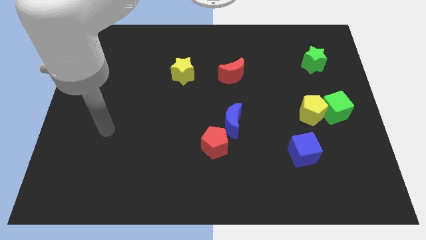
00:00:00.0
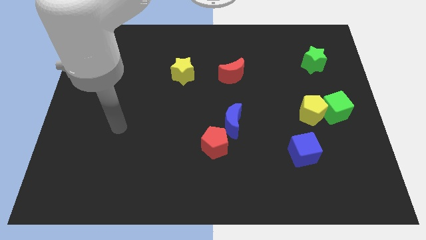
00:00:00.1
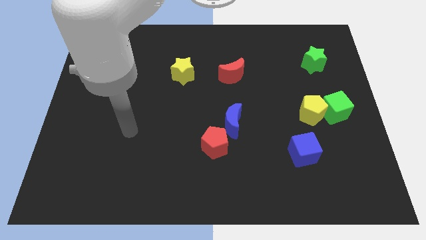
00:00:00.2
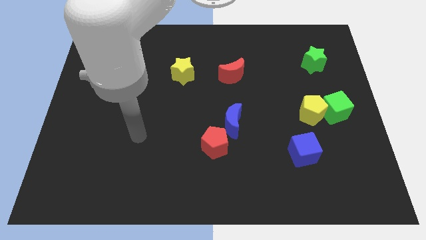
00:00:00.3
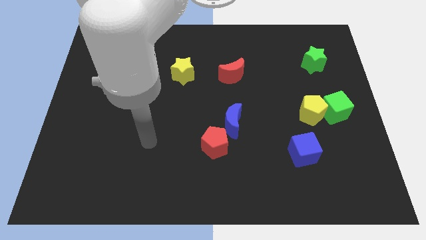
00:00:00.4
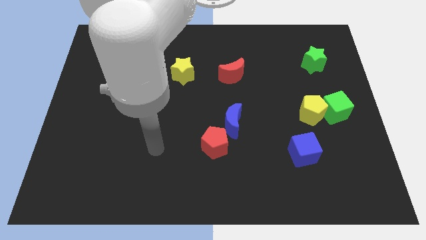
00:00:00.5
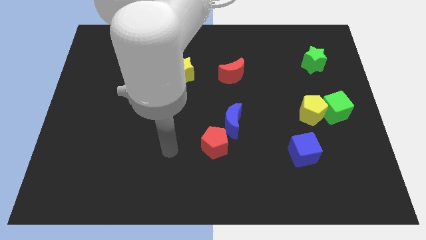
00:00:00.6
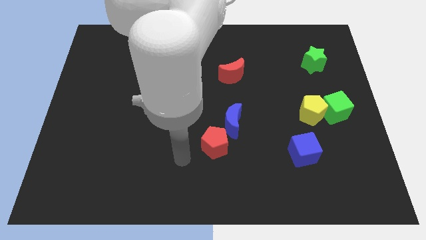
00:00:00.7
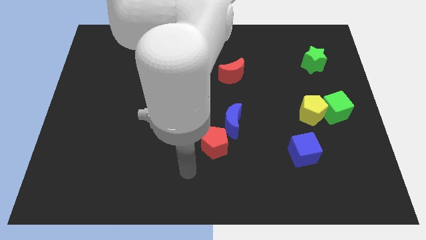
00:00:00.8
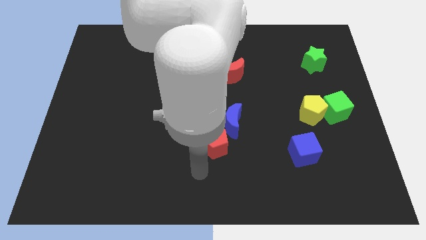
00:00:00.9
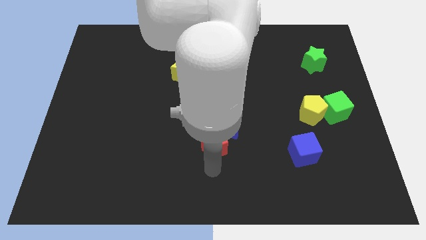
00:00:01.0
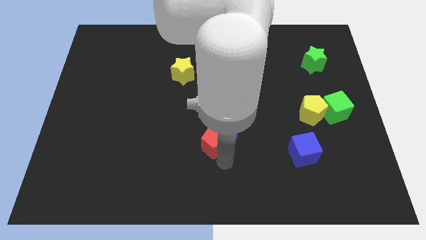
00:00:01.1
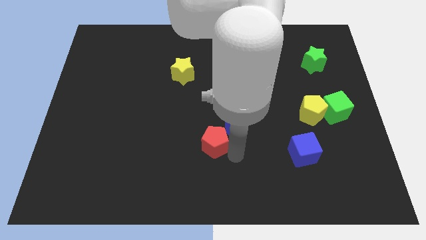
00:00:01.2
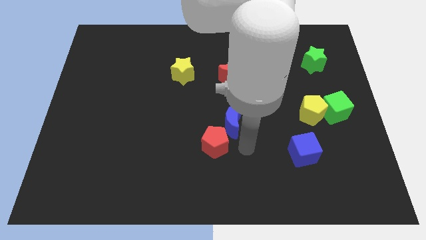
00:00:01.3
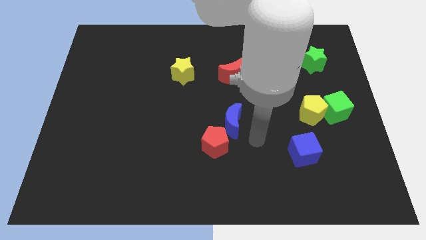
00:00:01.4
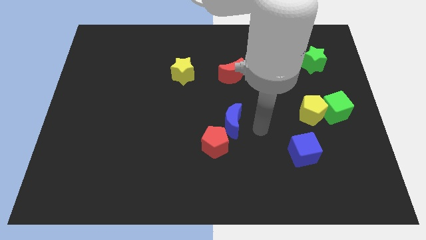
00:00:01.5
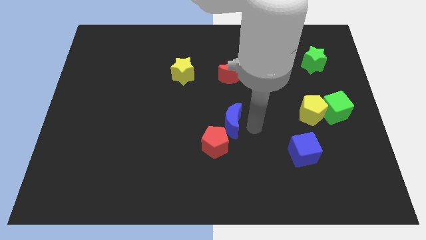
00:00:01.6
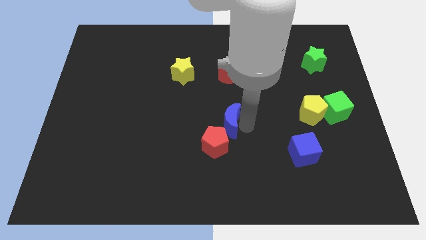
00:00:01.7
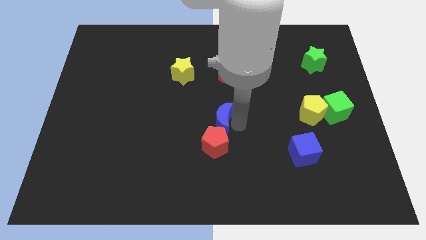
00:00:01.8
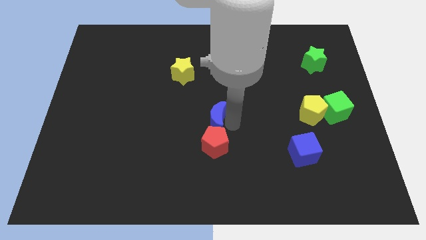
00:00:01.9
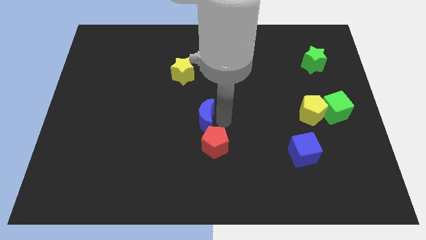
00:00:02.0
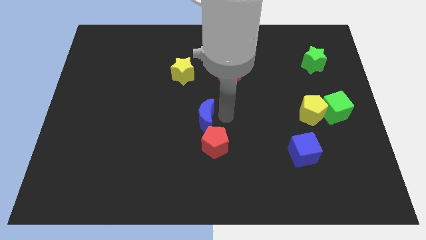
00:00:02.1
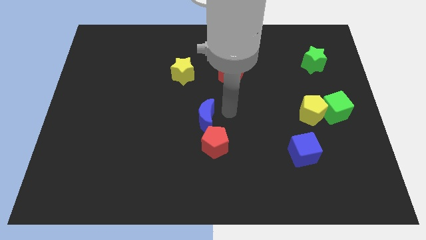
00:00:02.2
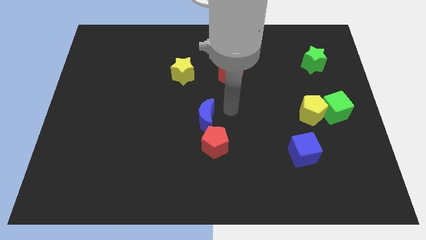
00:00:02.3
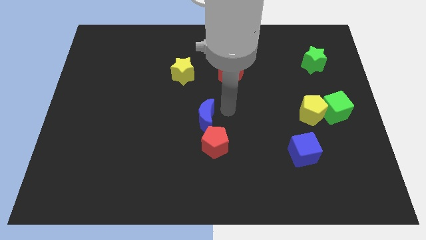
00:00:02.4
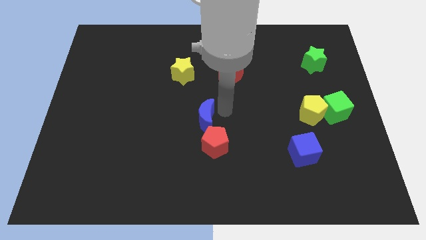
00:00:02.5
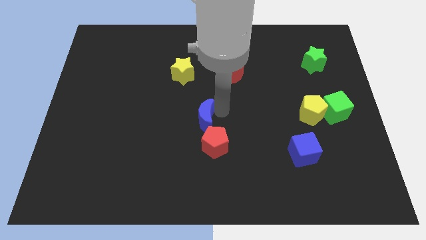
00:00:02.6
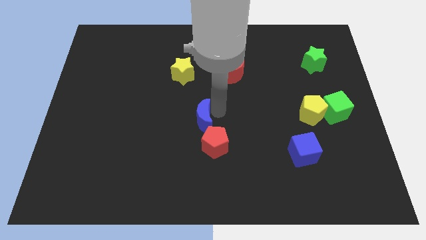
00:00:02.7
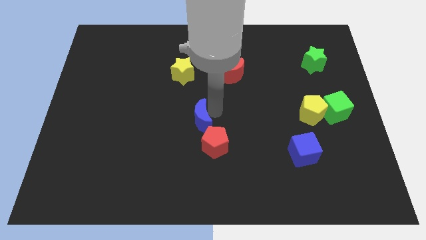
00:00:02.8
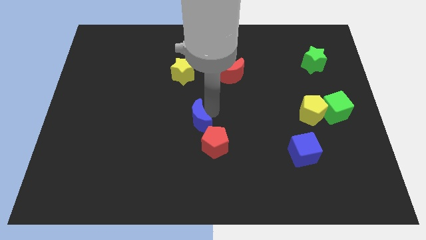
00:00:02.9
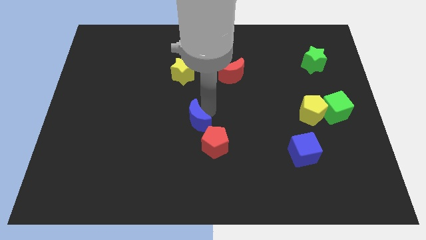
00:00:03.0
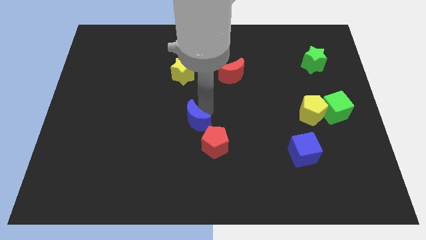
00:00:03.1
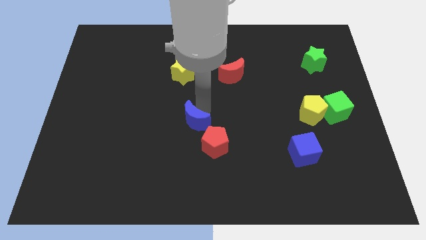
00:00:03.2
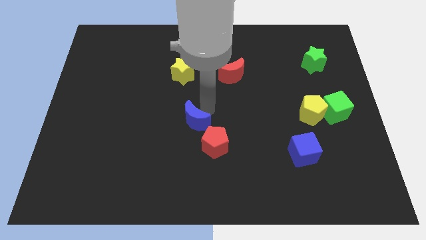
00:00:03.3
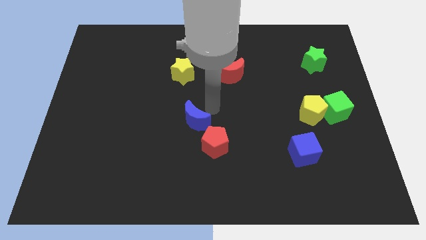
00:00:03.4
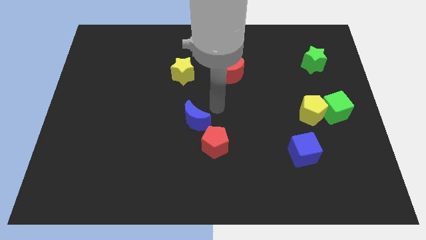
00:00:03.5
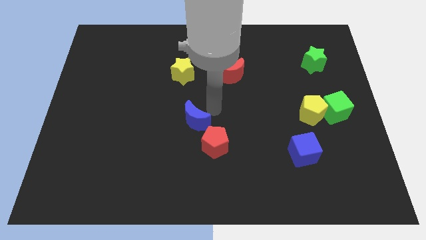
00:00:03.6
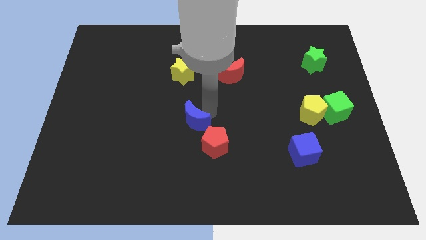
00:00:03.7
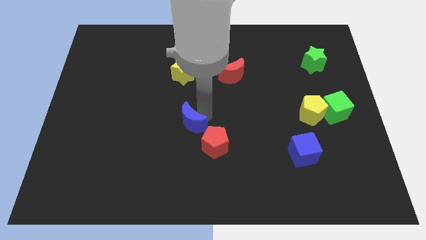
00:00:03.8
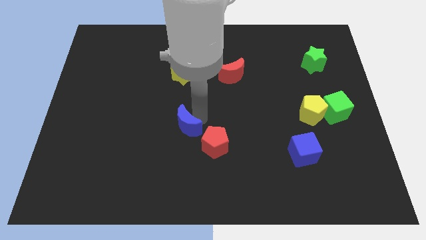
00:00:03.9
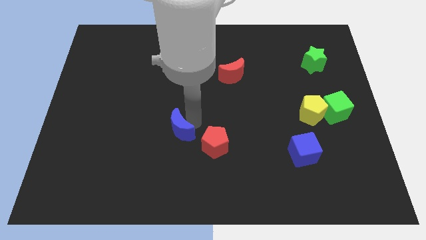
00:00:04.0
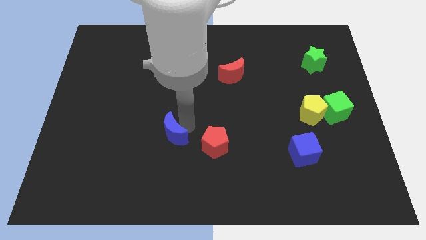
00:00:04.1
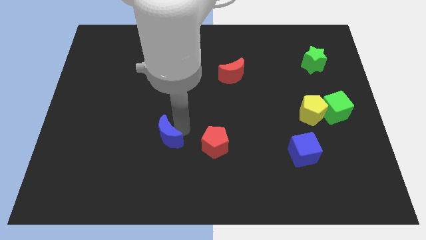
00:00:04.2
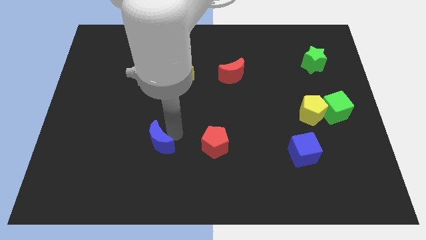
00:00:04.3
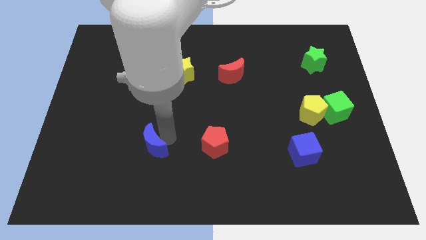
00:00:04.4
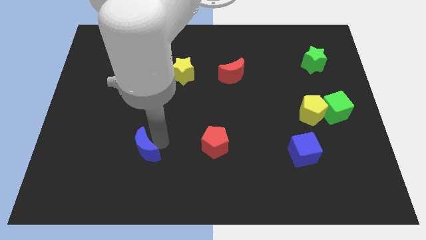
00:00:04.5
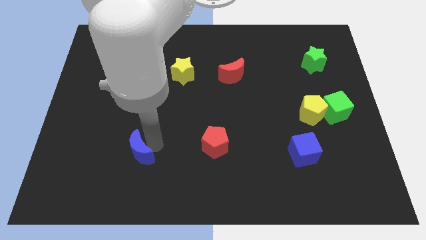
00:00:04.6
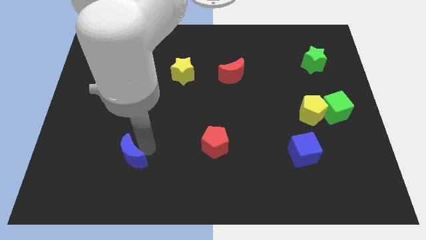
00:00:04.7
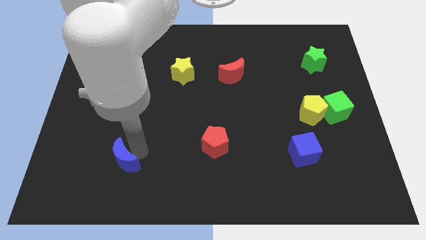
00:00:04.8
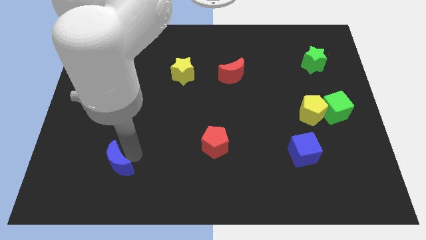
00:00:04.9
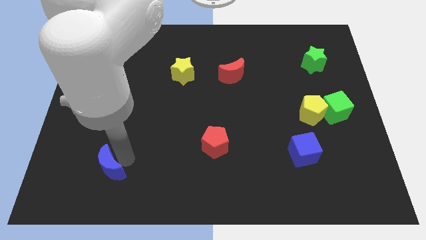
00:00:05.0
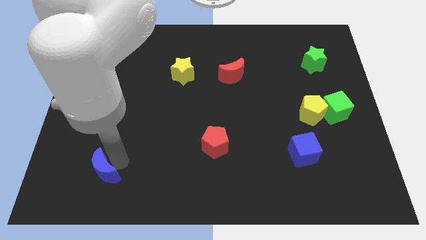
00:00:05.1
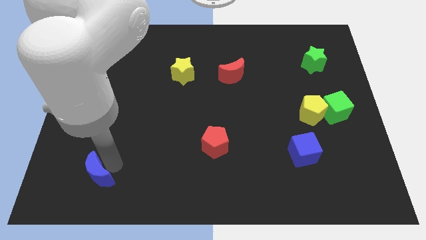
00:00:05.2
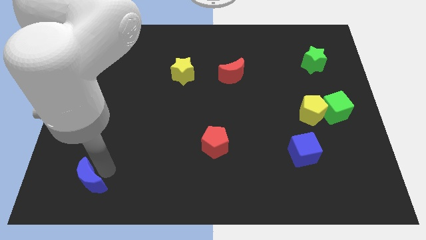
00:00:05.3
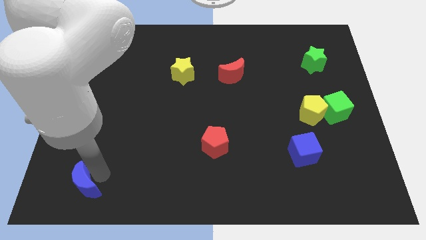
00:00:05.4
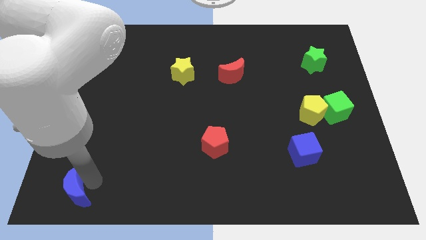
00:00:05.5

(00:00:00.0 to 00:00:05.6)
push the blue moon to the lower left corner

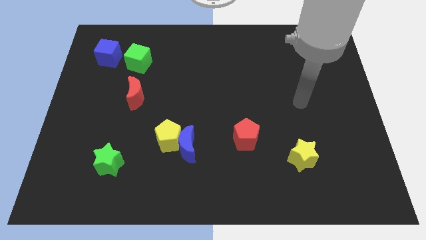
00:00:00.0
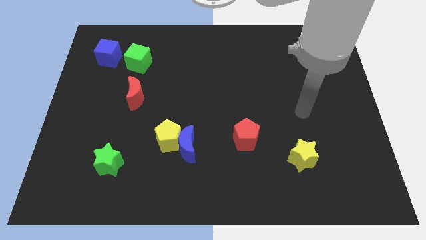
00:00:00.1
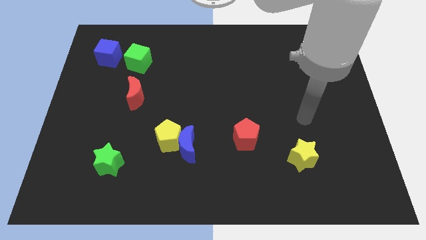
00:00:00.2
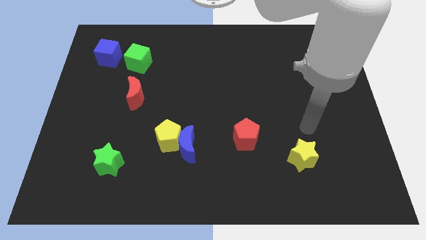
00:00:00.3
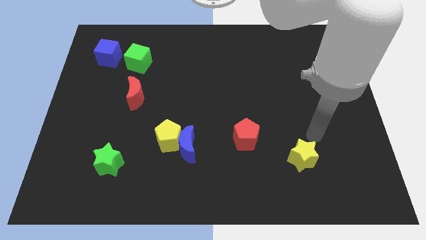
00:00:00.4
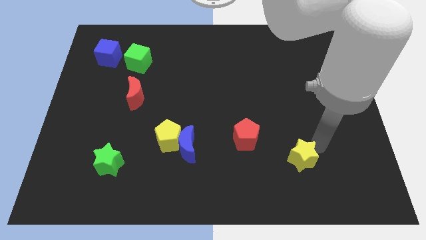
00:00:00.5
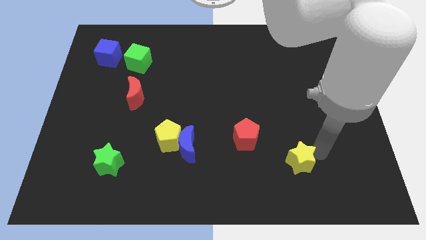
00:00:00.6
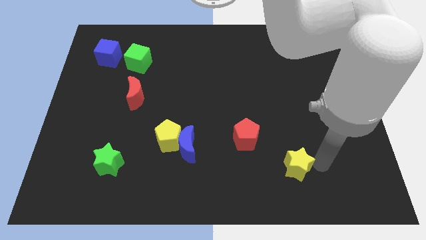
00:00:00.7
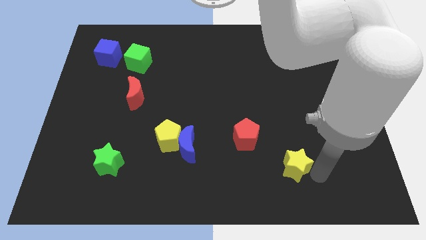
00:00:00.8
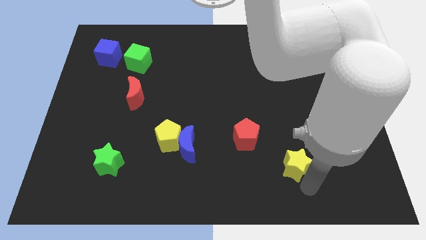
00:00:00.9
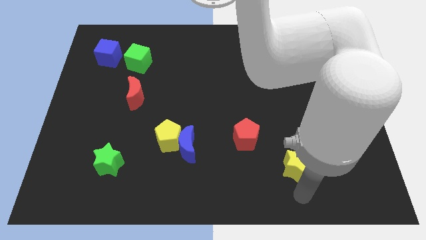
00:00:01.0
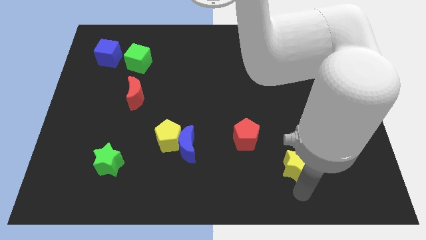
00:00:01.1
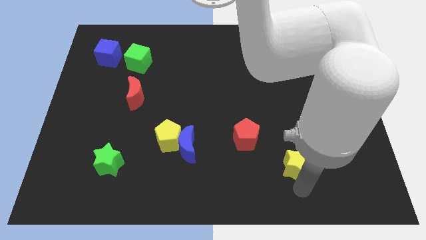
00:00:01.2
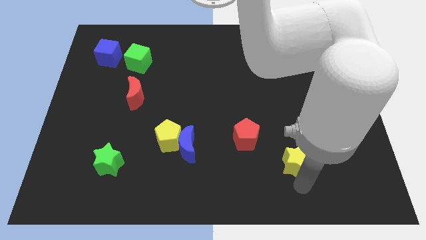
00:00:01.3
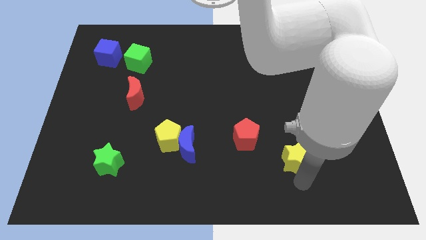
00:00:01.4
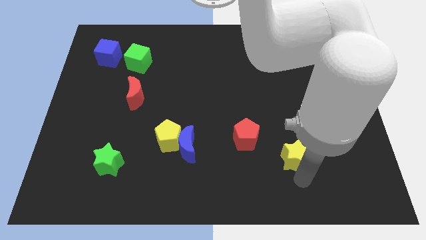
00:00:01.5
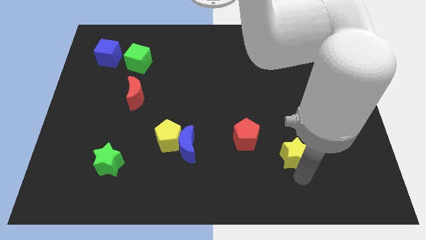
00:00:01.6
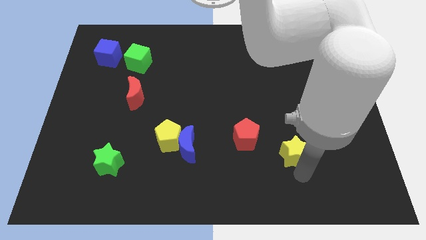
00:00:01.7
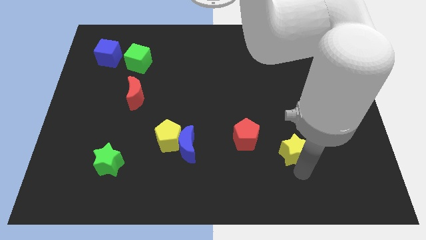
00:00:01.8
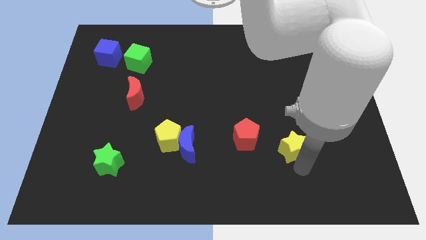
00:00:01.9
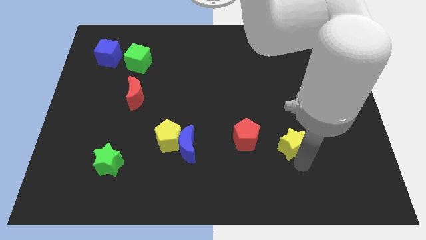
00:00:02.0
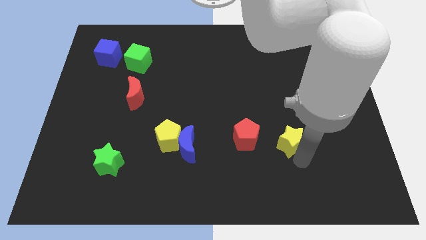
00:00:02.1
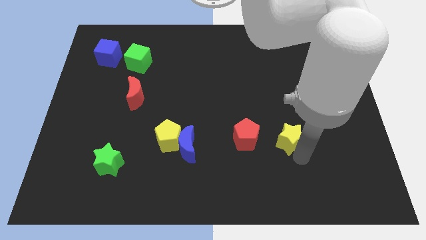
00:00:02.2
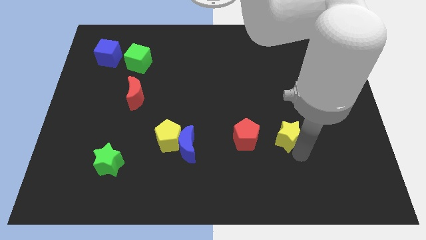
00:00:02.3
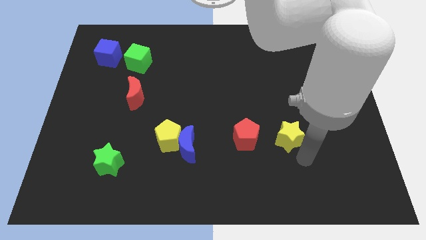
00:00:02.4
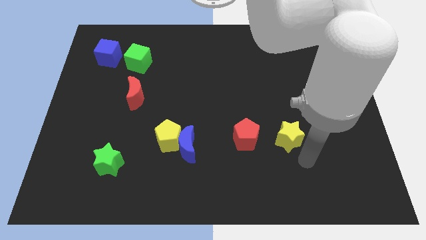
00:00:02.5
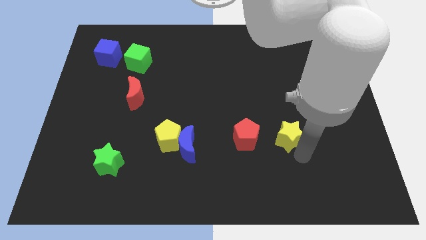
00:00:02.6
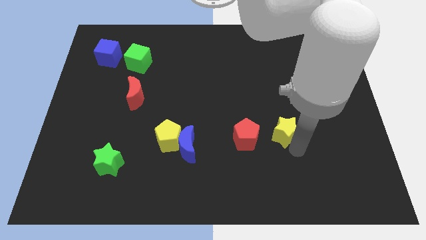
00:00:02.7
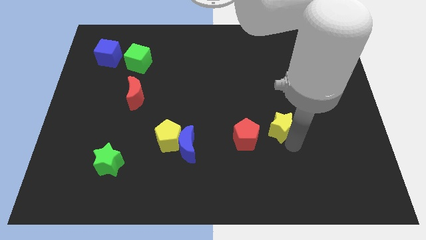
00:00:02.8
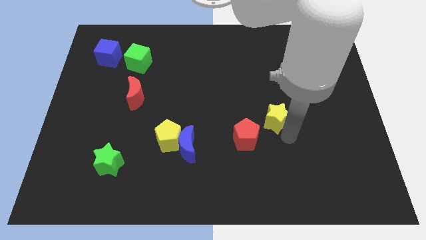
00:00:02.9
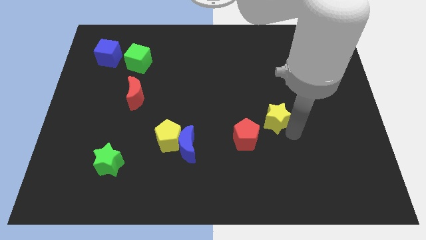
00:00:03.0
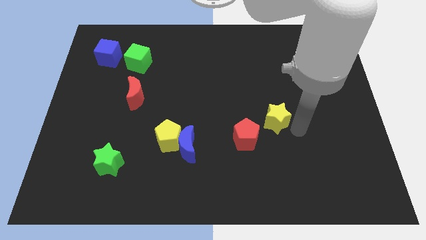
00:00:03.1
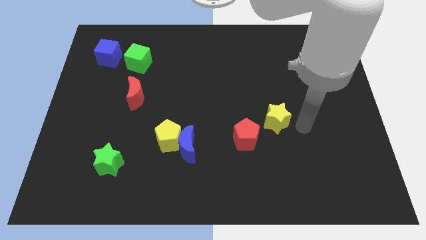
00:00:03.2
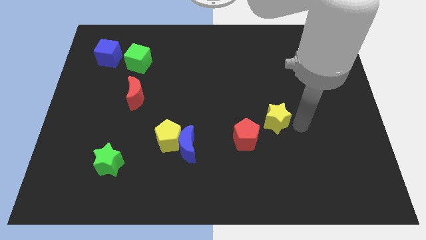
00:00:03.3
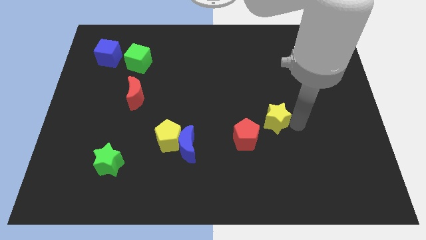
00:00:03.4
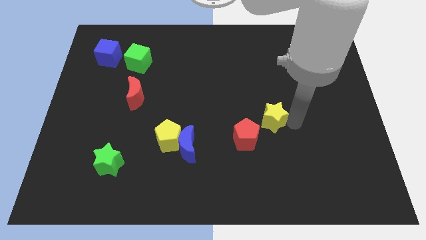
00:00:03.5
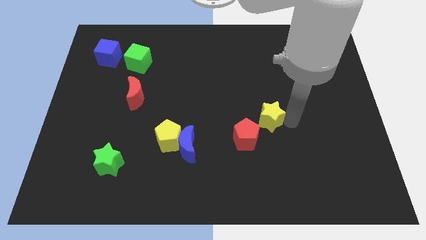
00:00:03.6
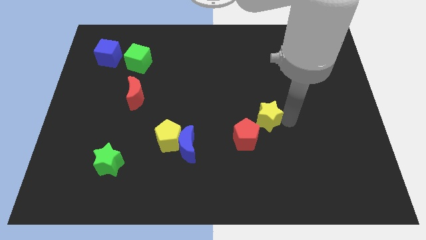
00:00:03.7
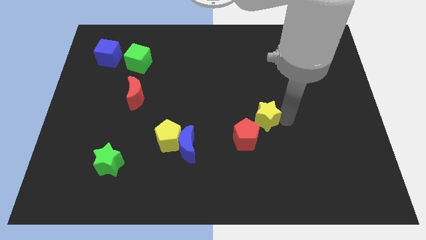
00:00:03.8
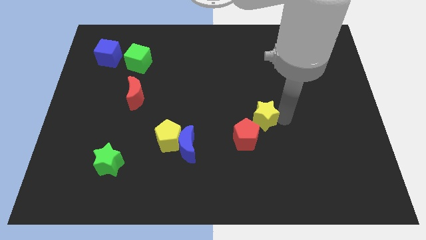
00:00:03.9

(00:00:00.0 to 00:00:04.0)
slide the yellow star to the center
